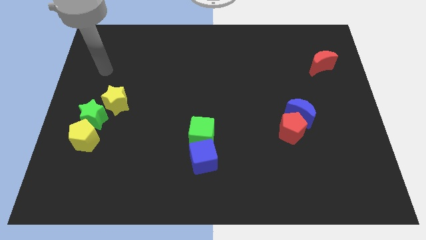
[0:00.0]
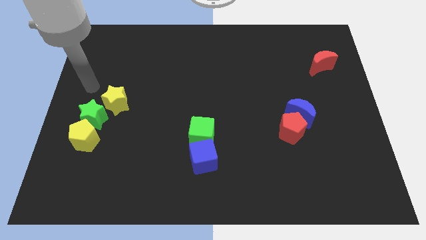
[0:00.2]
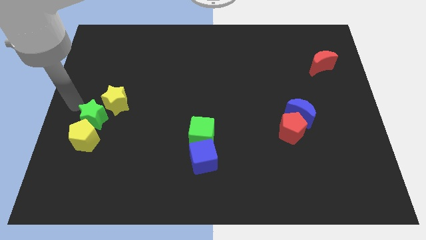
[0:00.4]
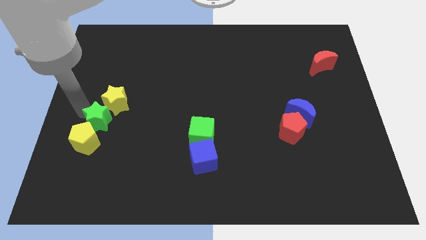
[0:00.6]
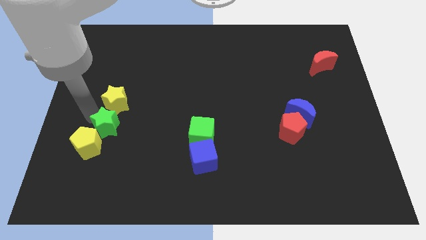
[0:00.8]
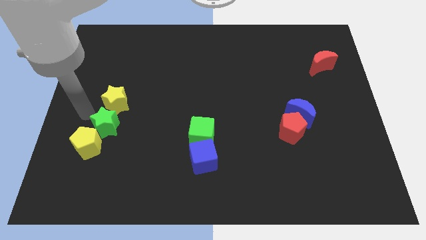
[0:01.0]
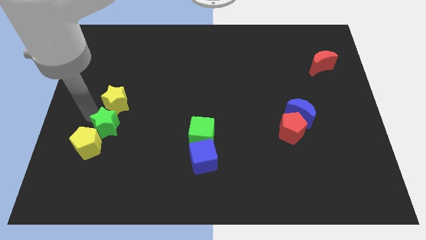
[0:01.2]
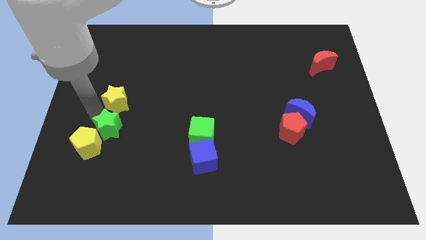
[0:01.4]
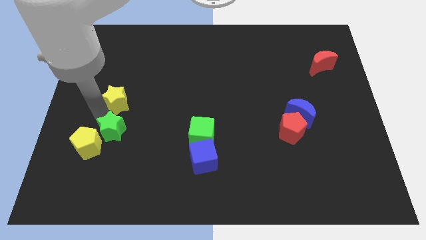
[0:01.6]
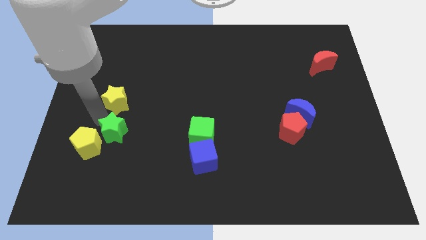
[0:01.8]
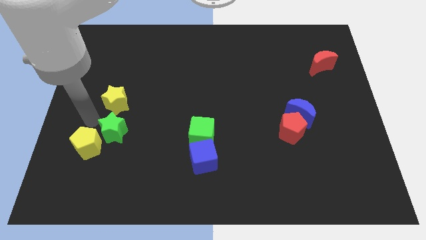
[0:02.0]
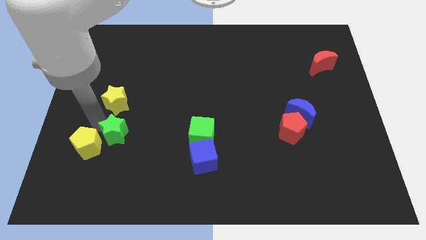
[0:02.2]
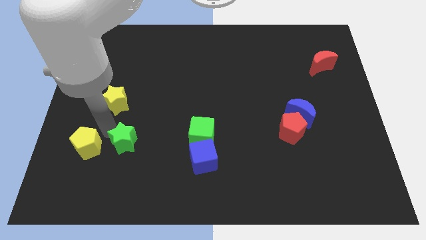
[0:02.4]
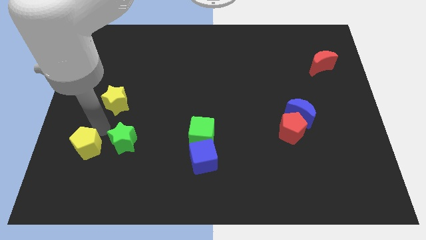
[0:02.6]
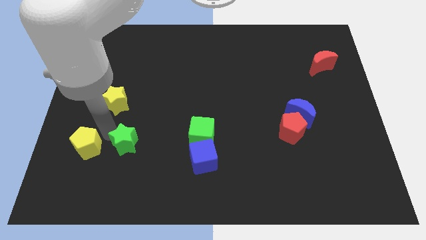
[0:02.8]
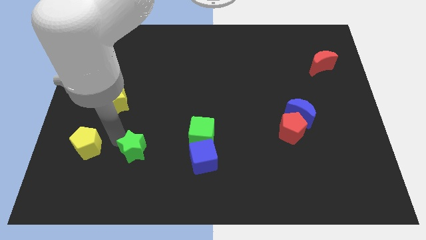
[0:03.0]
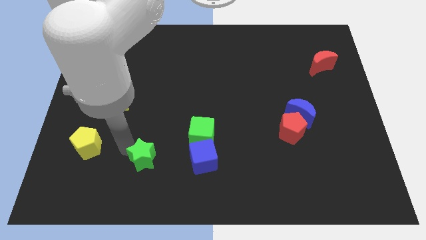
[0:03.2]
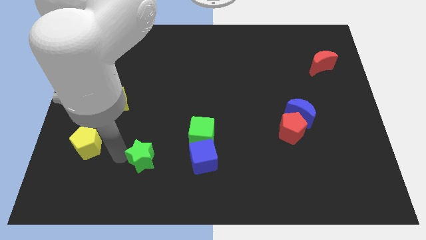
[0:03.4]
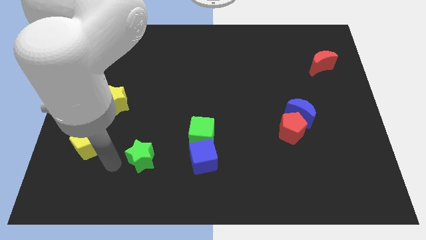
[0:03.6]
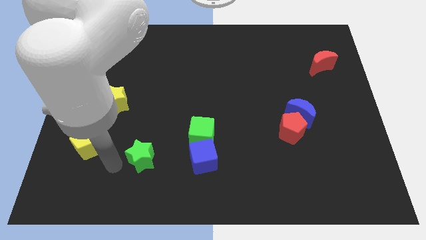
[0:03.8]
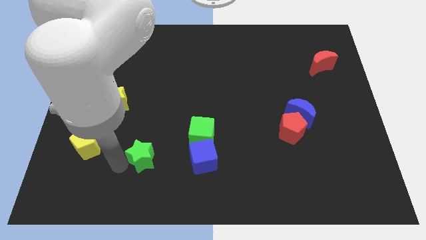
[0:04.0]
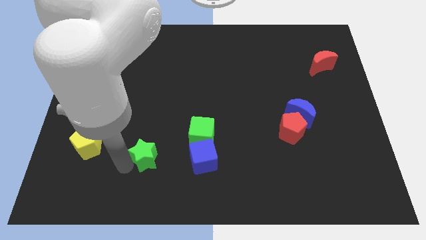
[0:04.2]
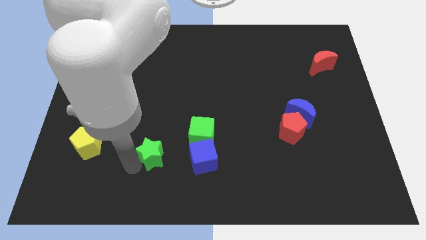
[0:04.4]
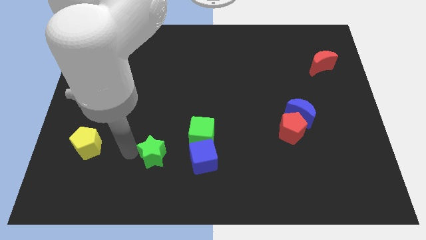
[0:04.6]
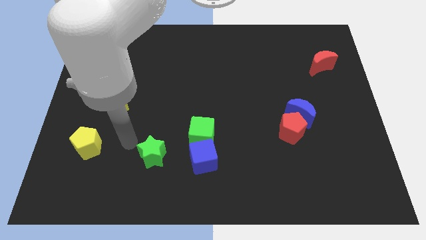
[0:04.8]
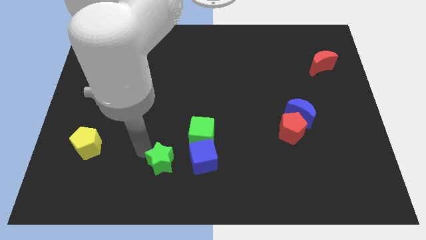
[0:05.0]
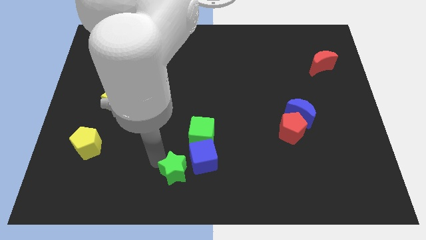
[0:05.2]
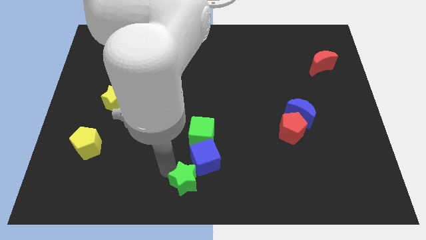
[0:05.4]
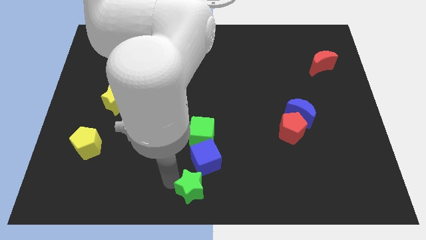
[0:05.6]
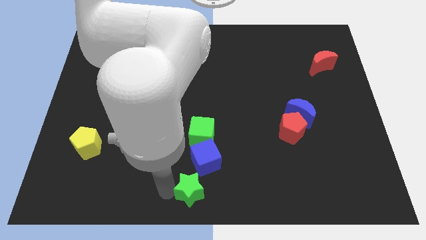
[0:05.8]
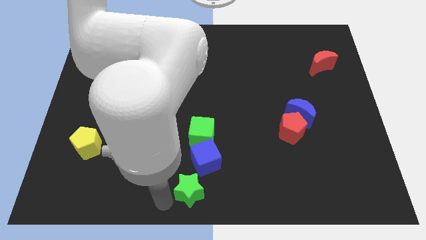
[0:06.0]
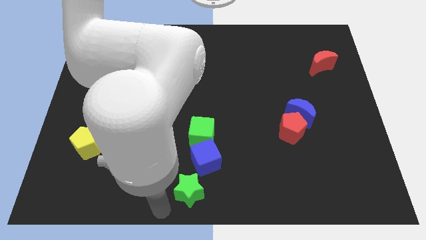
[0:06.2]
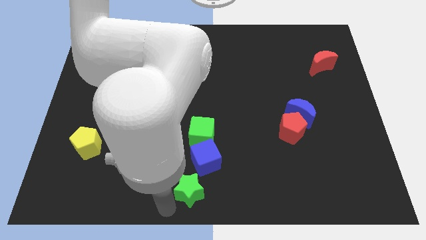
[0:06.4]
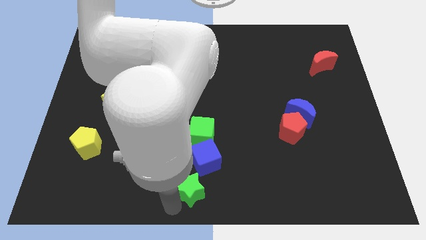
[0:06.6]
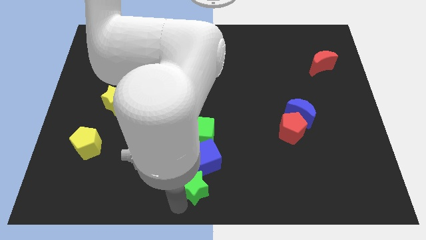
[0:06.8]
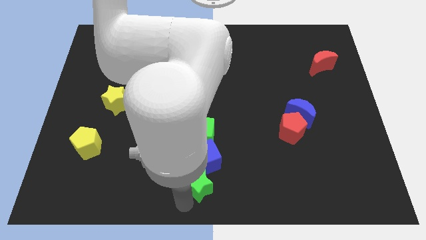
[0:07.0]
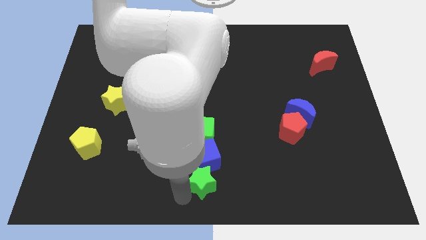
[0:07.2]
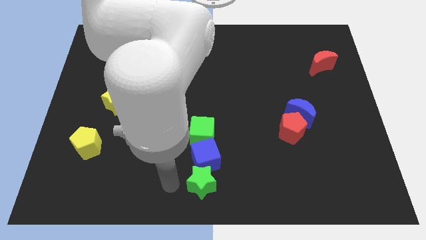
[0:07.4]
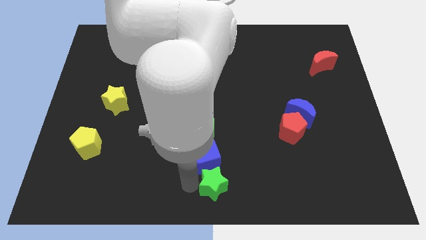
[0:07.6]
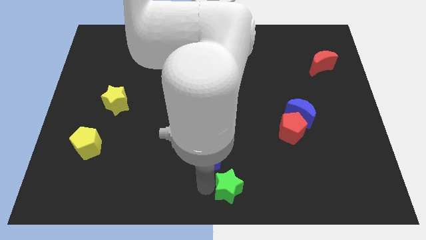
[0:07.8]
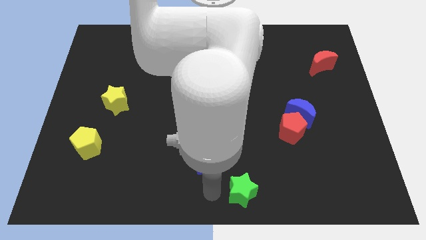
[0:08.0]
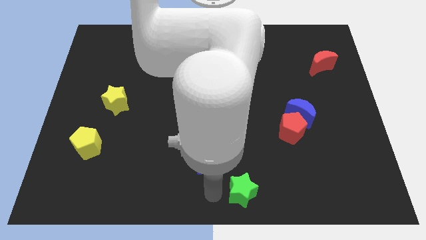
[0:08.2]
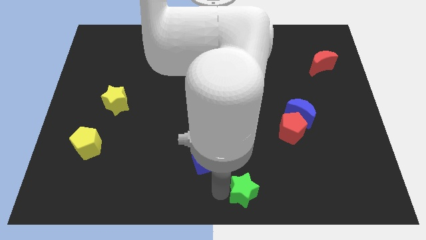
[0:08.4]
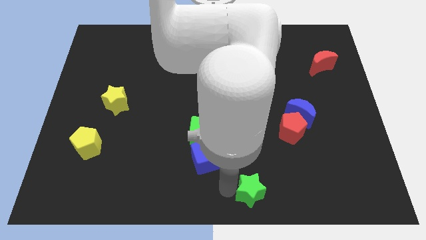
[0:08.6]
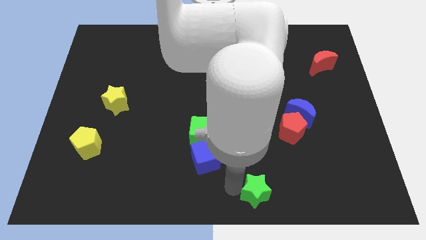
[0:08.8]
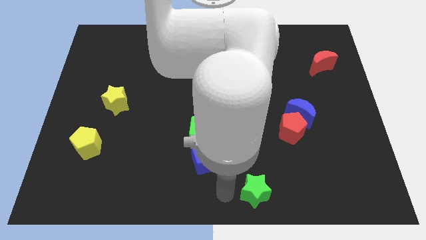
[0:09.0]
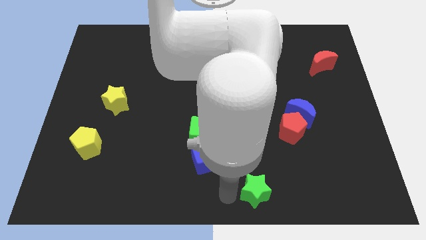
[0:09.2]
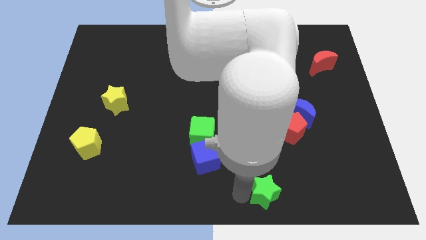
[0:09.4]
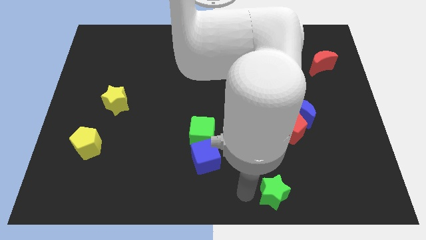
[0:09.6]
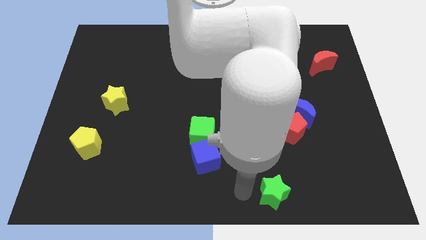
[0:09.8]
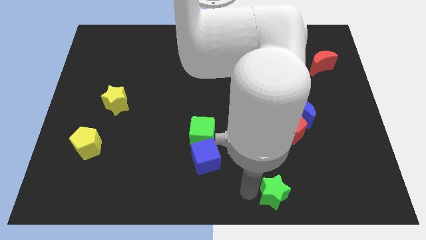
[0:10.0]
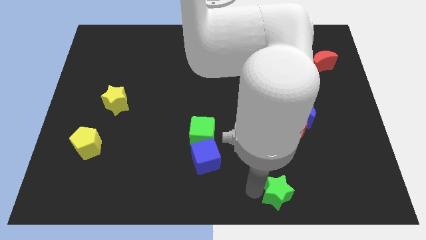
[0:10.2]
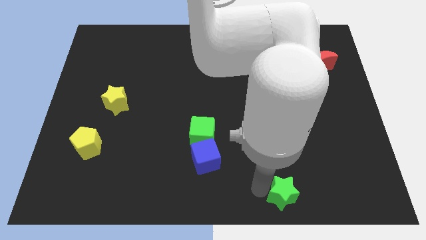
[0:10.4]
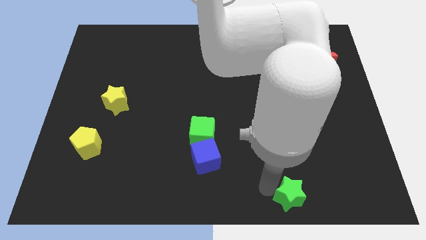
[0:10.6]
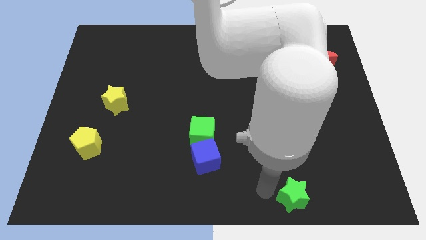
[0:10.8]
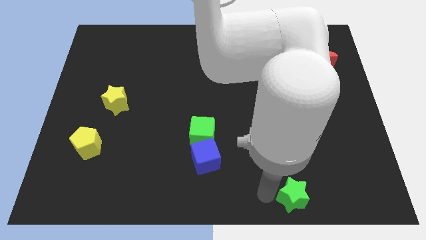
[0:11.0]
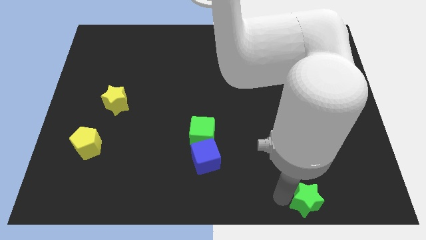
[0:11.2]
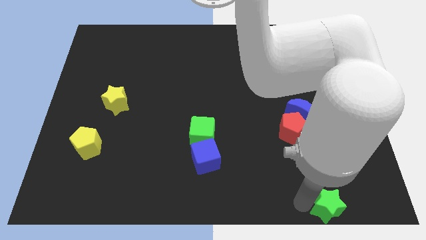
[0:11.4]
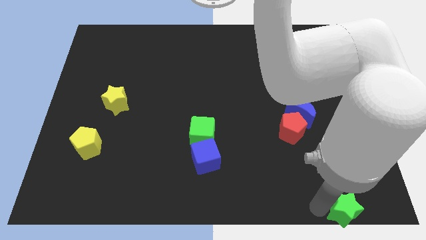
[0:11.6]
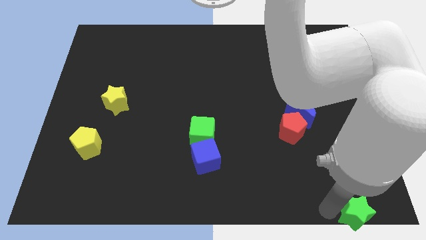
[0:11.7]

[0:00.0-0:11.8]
move the green star to the bottom right of the board

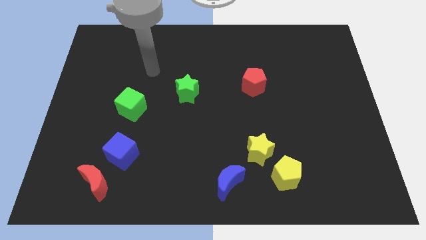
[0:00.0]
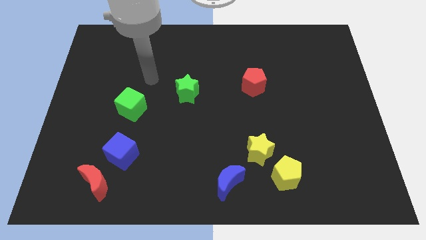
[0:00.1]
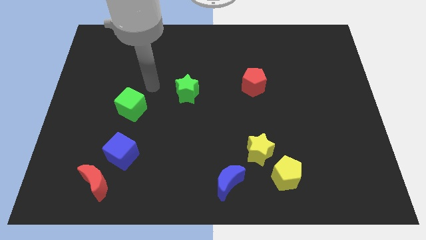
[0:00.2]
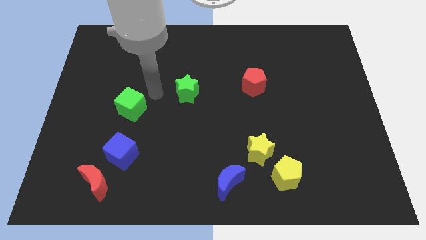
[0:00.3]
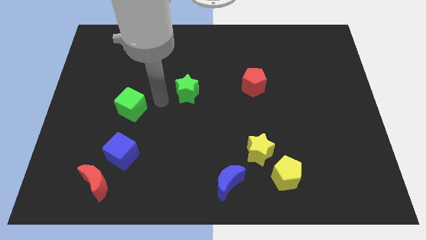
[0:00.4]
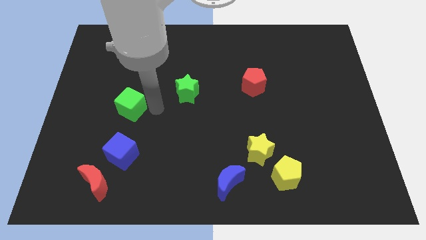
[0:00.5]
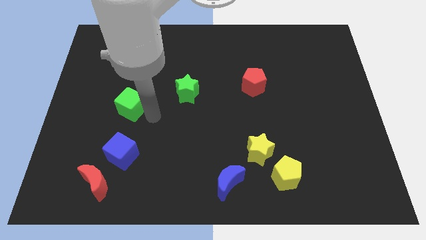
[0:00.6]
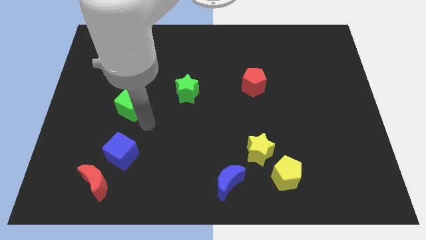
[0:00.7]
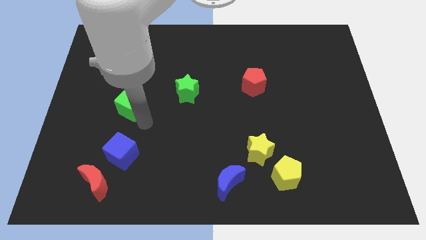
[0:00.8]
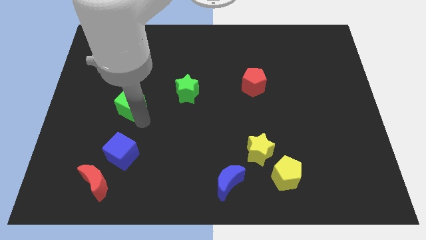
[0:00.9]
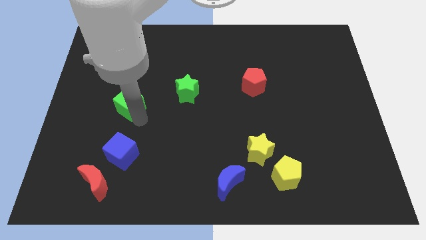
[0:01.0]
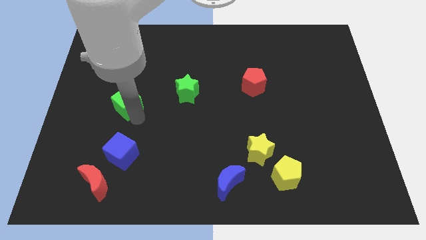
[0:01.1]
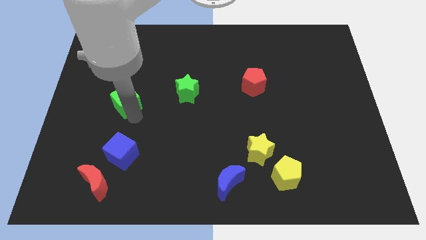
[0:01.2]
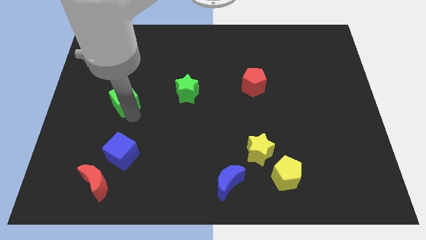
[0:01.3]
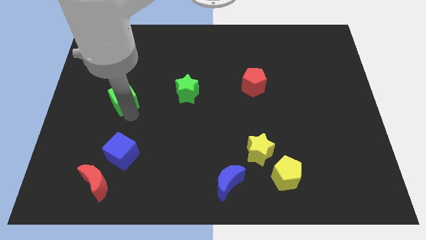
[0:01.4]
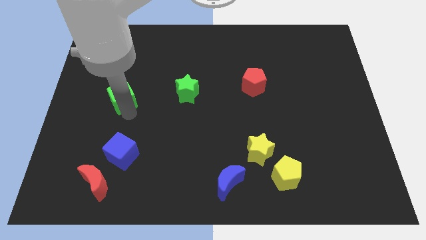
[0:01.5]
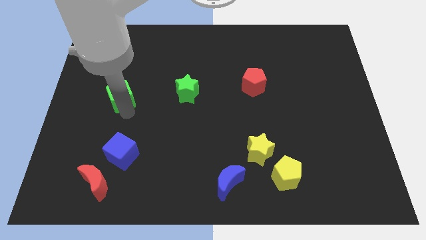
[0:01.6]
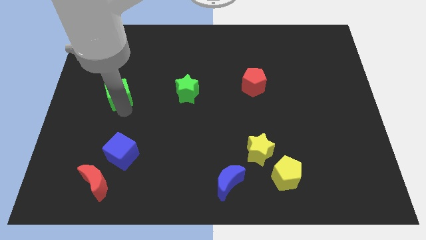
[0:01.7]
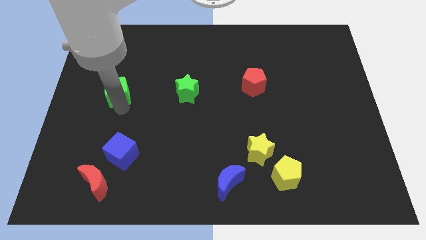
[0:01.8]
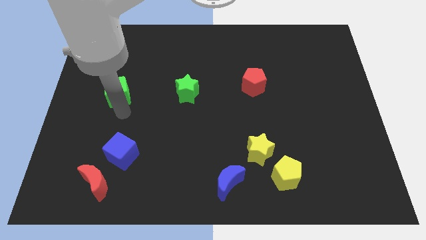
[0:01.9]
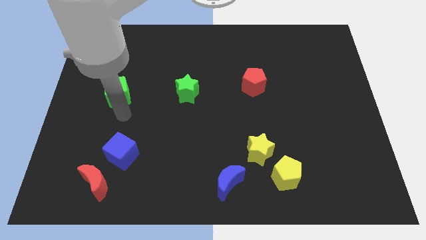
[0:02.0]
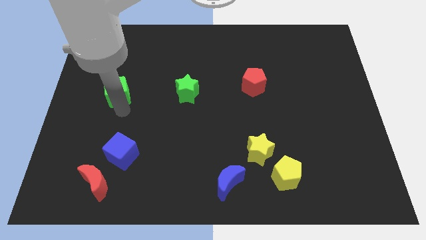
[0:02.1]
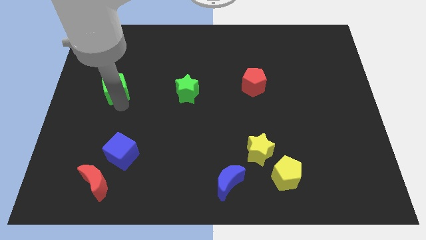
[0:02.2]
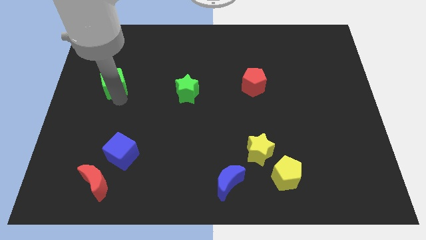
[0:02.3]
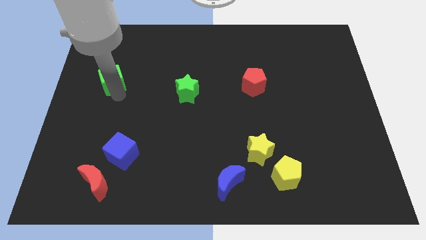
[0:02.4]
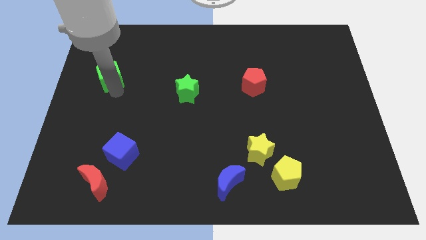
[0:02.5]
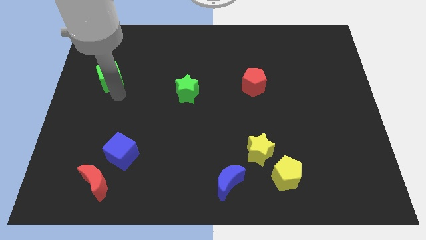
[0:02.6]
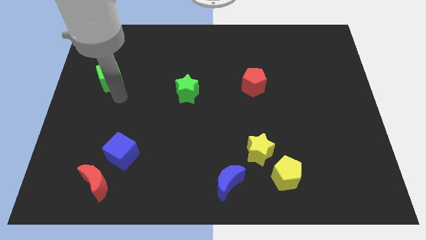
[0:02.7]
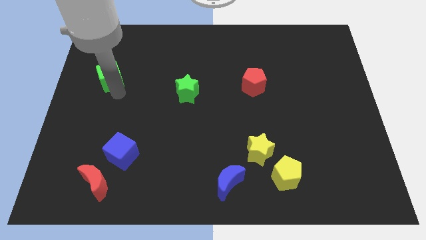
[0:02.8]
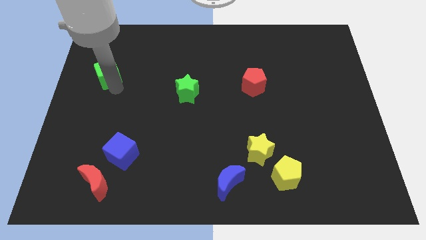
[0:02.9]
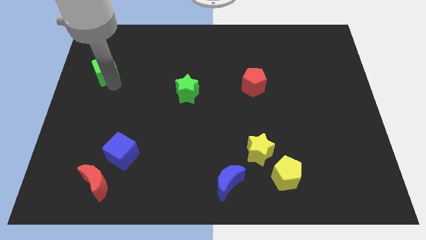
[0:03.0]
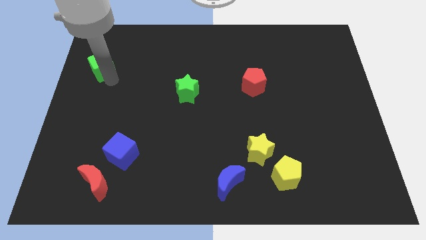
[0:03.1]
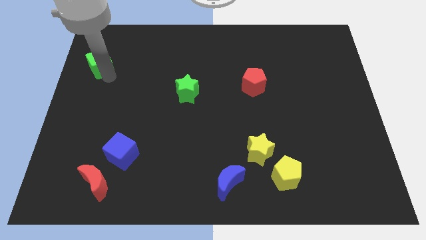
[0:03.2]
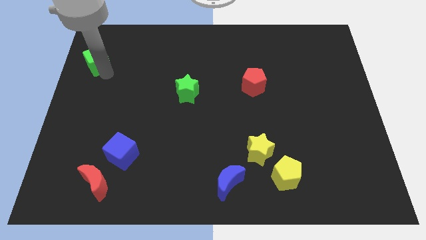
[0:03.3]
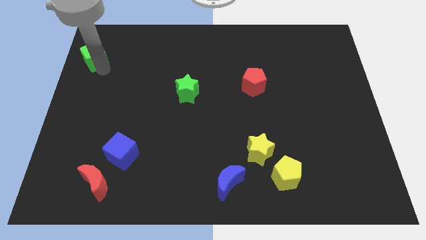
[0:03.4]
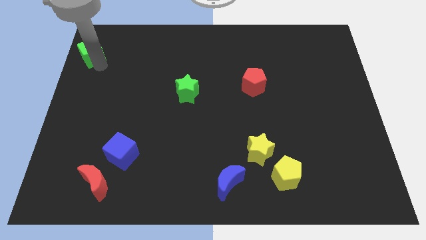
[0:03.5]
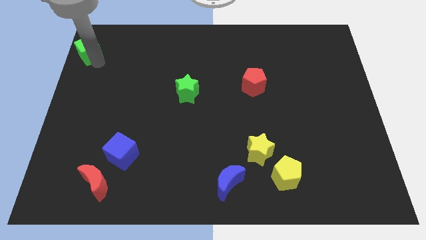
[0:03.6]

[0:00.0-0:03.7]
push the green cube to the top left corner
